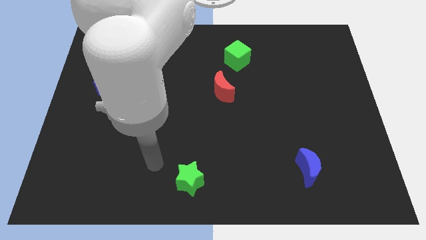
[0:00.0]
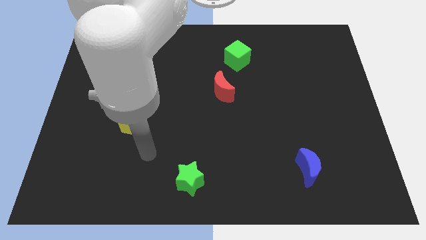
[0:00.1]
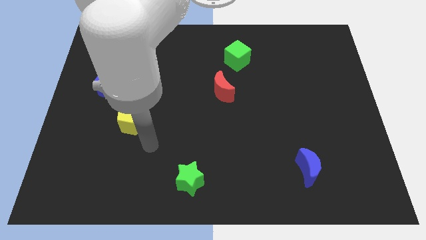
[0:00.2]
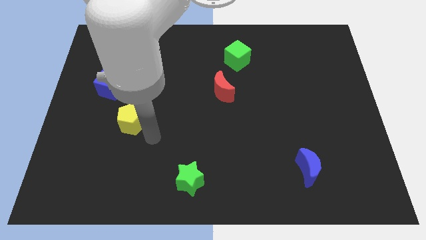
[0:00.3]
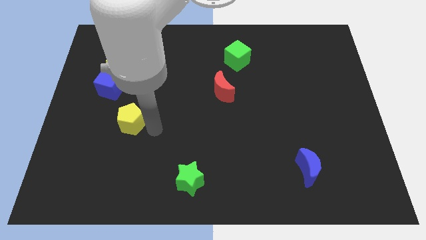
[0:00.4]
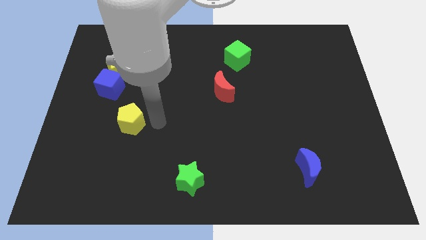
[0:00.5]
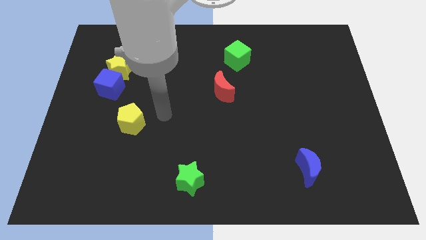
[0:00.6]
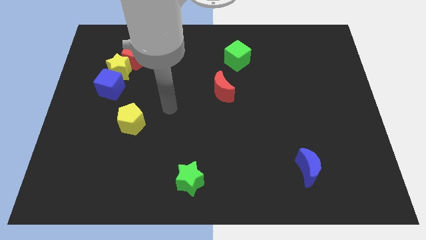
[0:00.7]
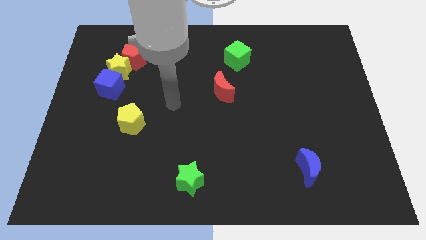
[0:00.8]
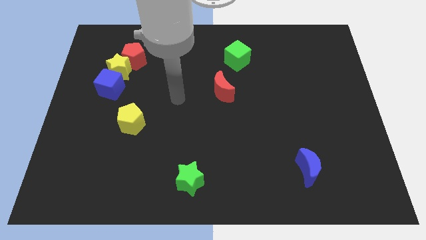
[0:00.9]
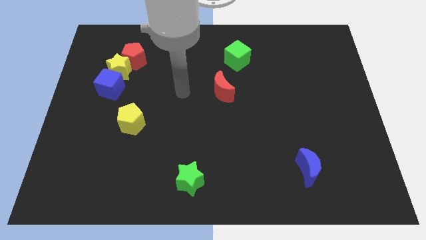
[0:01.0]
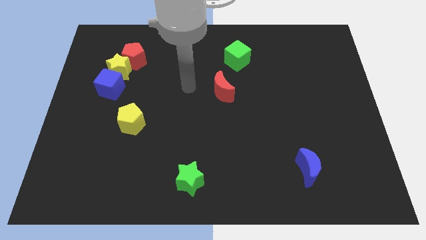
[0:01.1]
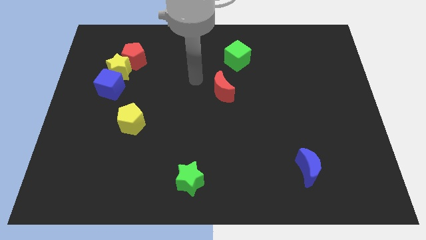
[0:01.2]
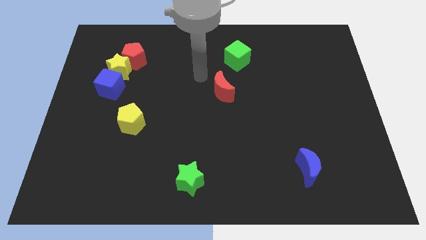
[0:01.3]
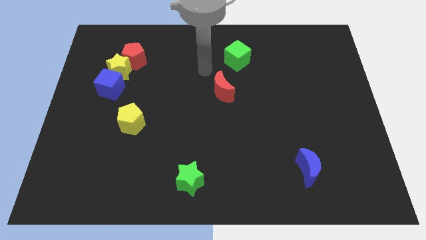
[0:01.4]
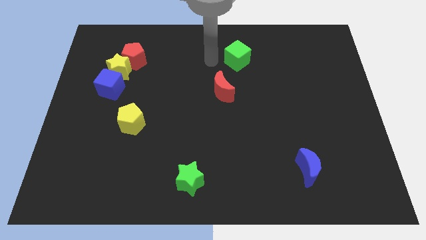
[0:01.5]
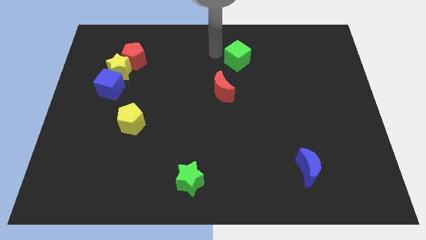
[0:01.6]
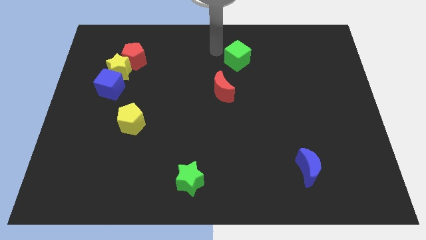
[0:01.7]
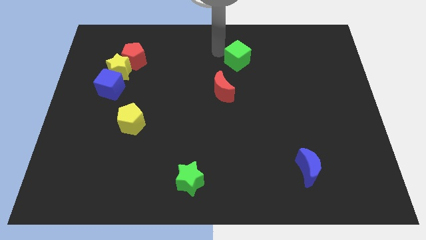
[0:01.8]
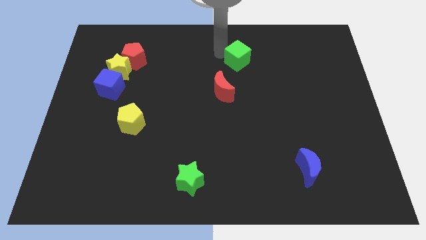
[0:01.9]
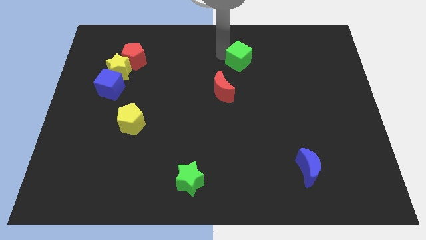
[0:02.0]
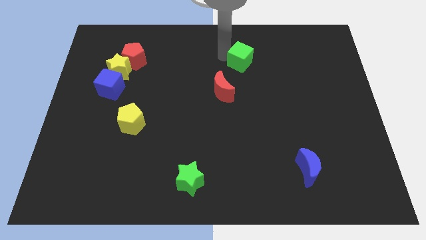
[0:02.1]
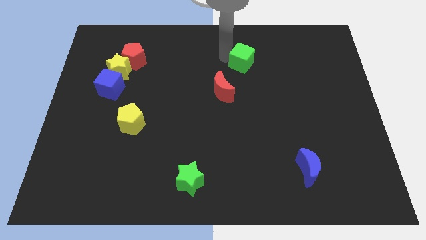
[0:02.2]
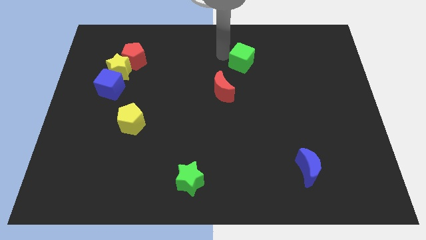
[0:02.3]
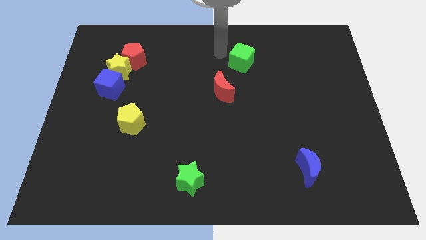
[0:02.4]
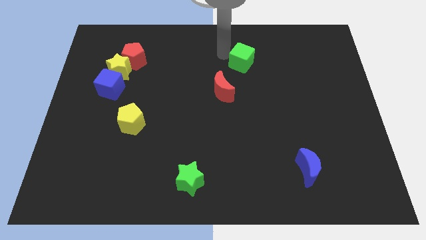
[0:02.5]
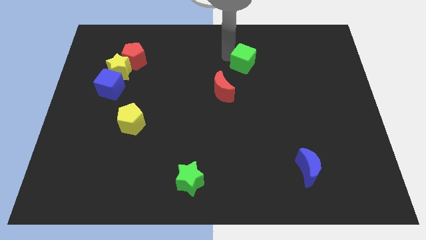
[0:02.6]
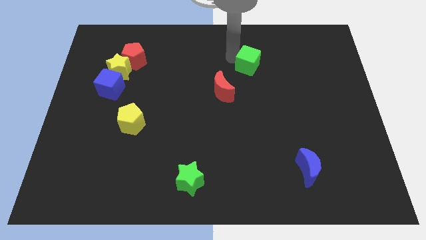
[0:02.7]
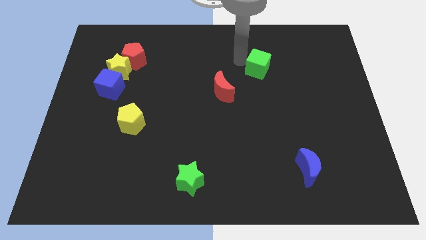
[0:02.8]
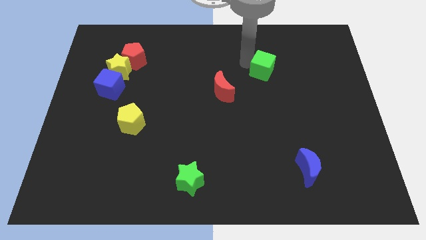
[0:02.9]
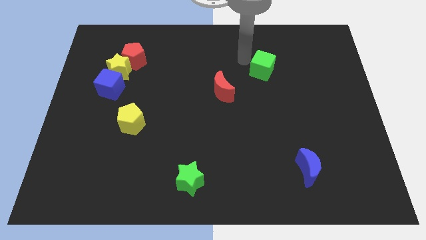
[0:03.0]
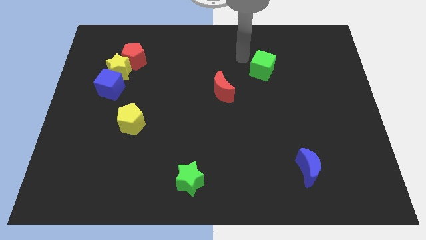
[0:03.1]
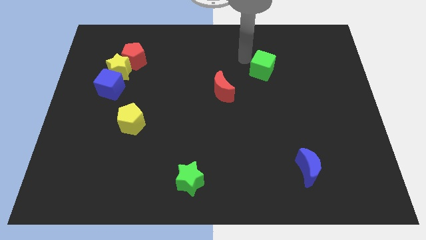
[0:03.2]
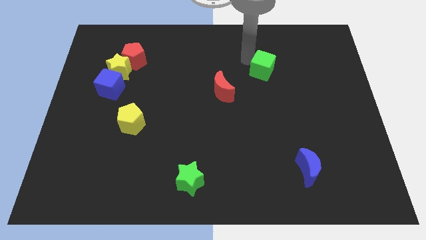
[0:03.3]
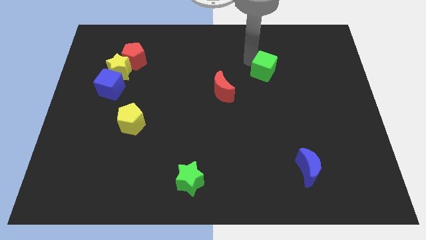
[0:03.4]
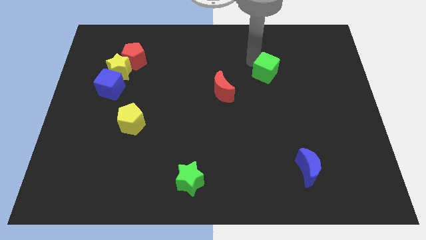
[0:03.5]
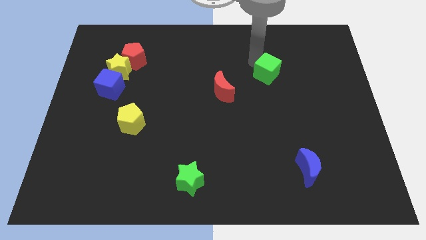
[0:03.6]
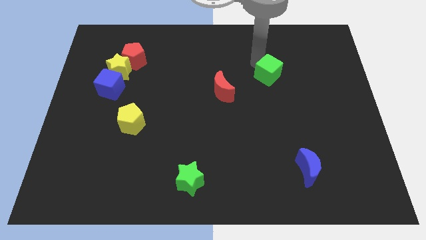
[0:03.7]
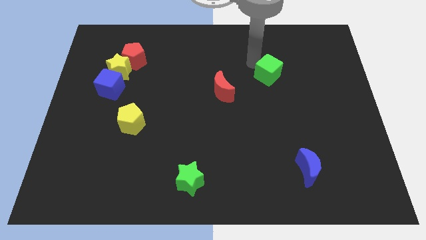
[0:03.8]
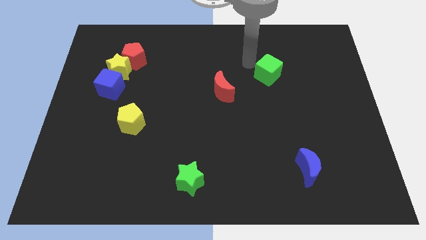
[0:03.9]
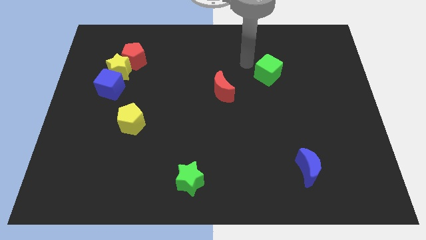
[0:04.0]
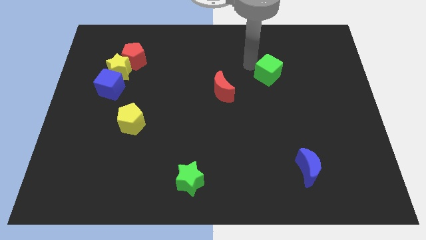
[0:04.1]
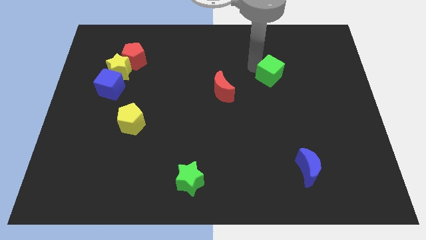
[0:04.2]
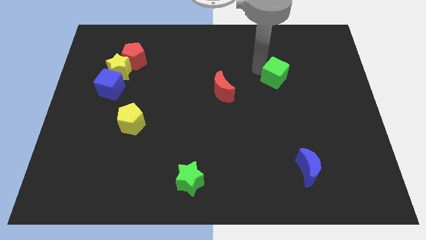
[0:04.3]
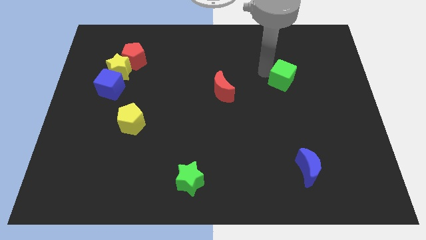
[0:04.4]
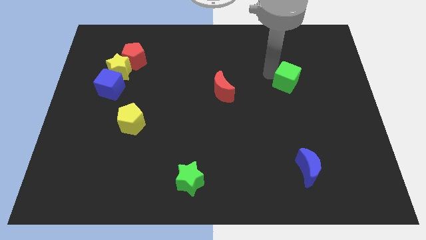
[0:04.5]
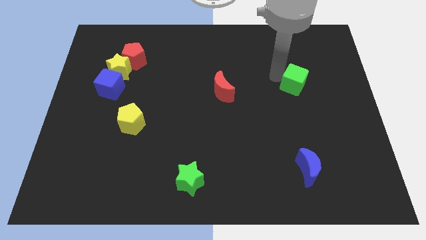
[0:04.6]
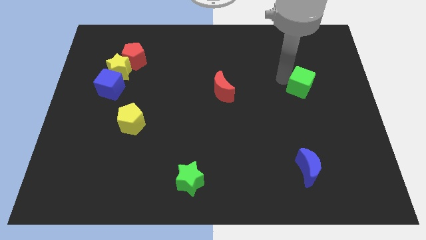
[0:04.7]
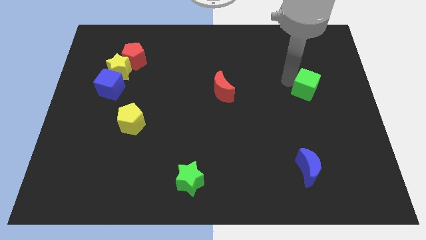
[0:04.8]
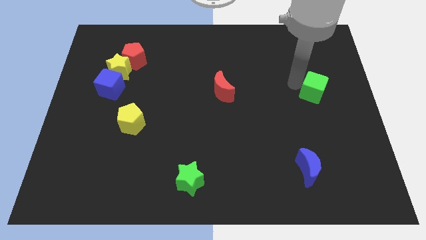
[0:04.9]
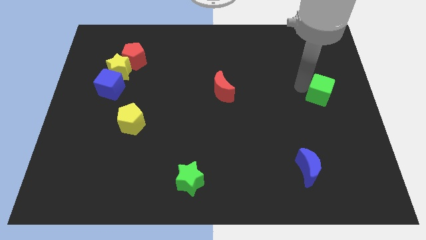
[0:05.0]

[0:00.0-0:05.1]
push the green cube to the right side of the board
